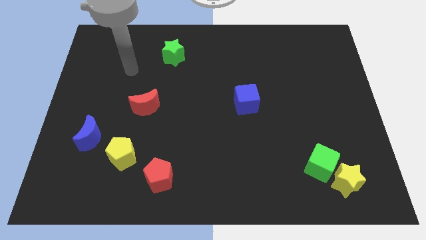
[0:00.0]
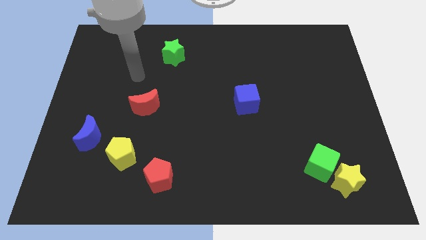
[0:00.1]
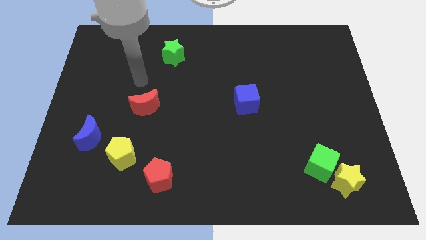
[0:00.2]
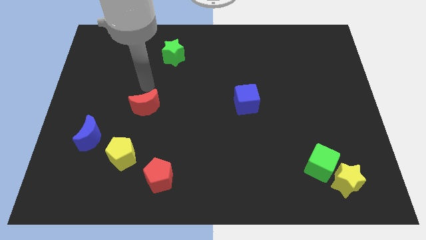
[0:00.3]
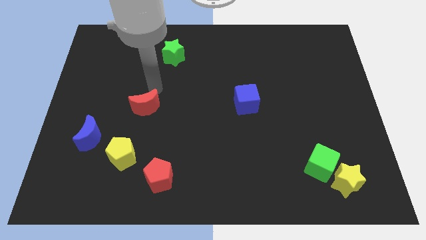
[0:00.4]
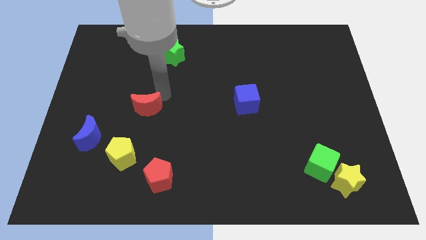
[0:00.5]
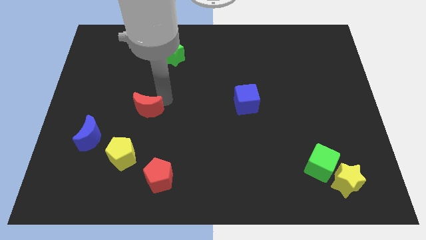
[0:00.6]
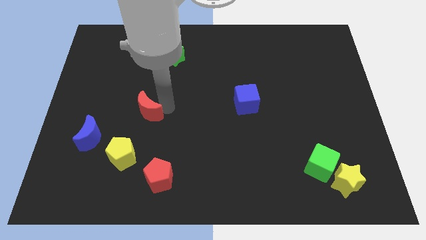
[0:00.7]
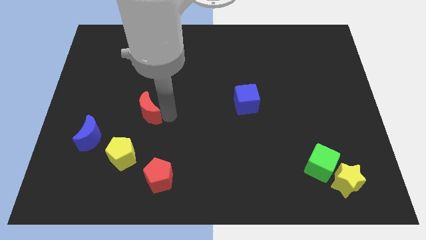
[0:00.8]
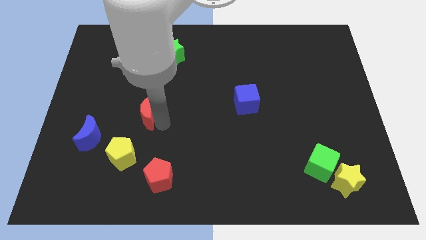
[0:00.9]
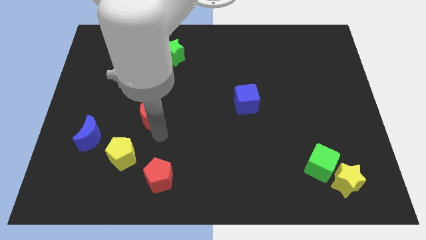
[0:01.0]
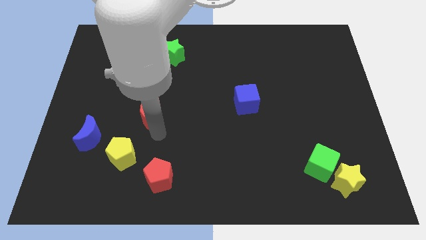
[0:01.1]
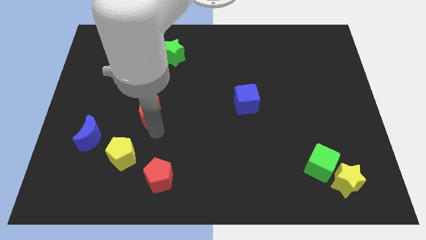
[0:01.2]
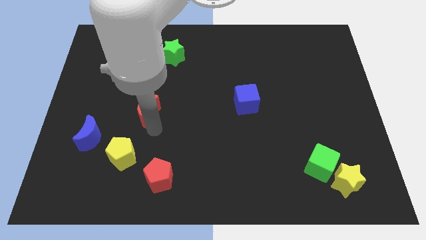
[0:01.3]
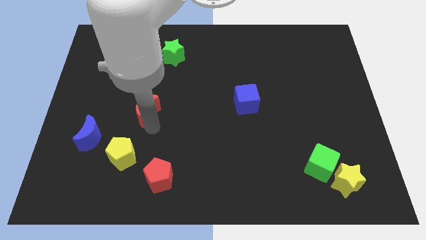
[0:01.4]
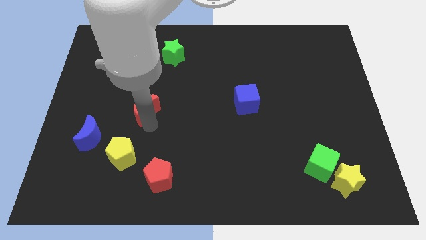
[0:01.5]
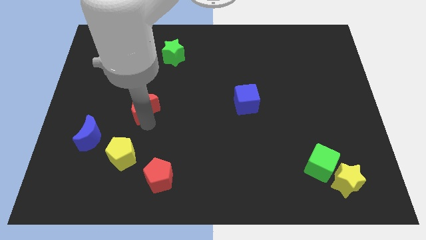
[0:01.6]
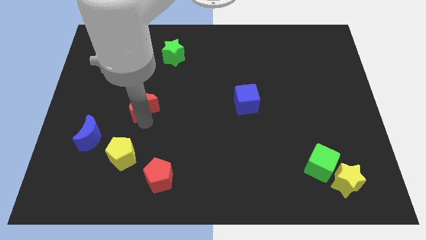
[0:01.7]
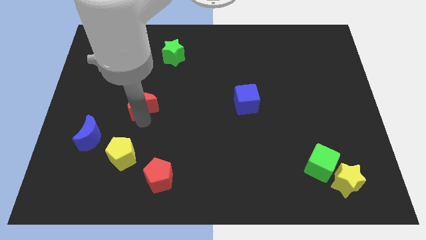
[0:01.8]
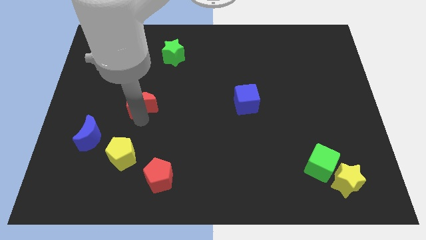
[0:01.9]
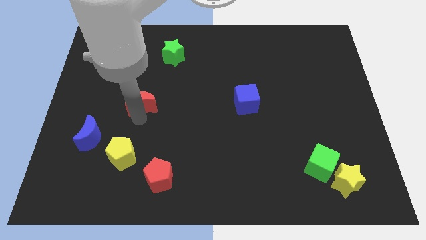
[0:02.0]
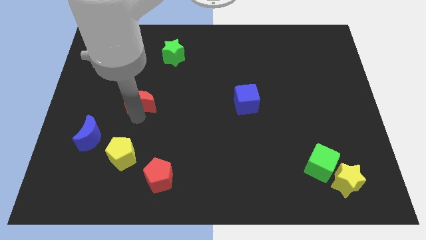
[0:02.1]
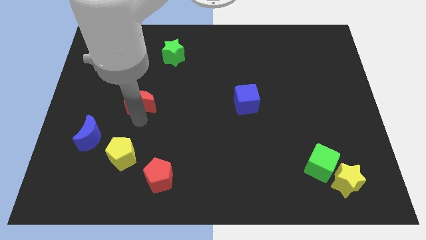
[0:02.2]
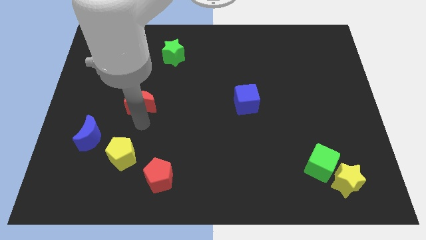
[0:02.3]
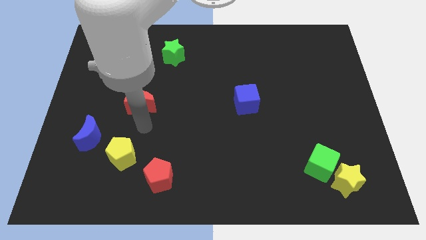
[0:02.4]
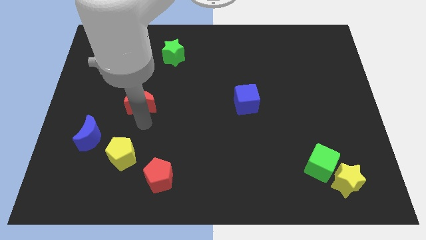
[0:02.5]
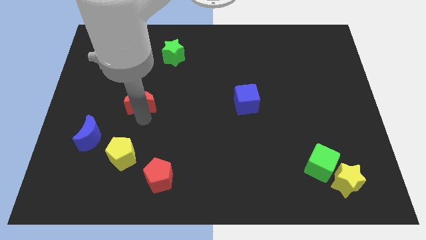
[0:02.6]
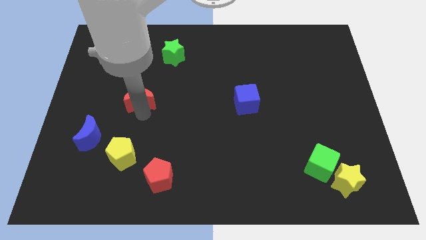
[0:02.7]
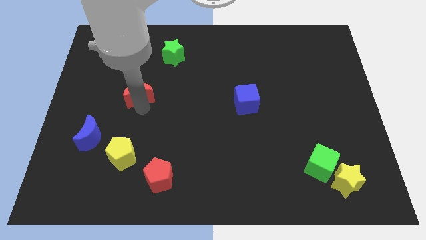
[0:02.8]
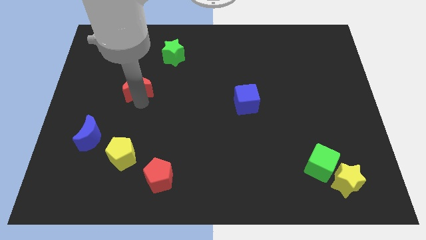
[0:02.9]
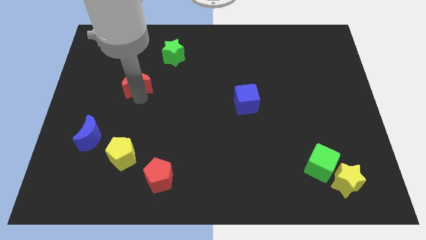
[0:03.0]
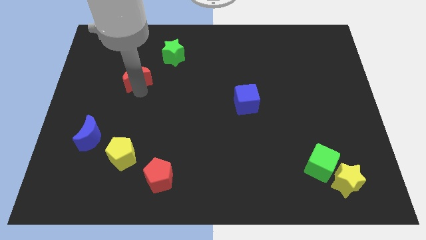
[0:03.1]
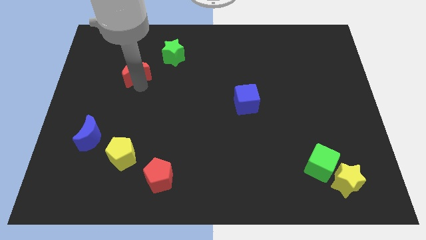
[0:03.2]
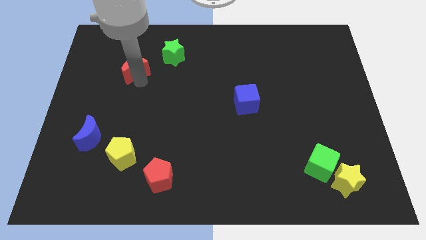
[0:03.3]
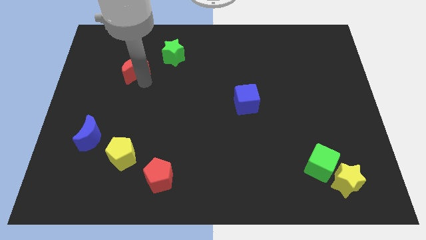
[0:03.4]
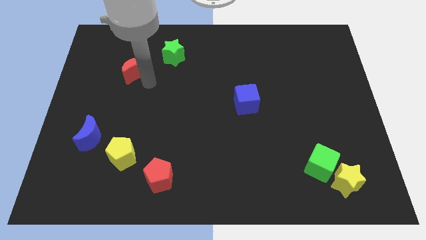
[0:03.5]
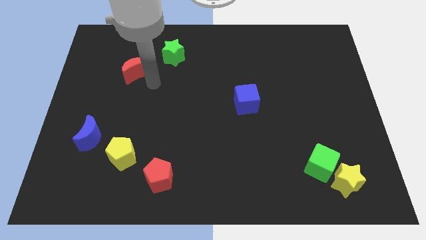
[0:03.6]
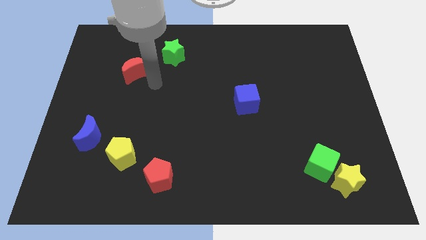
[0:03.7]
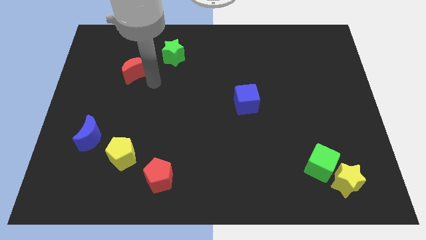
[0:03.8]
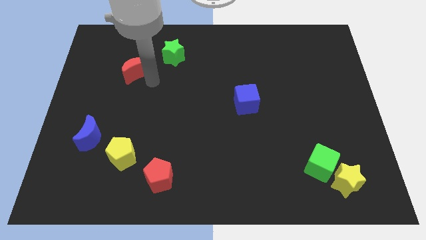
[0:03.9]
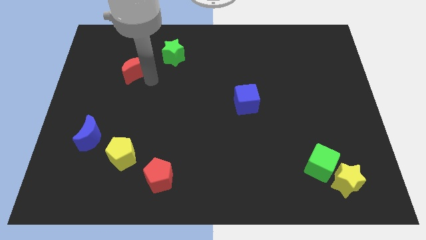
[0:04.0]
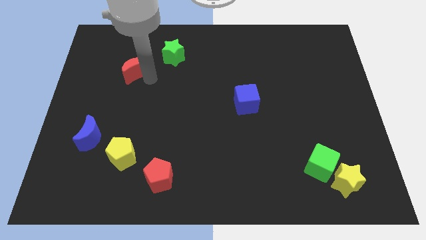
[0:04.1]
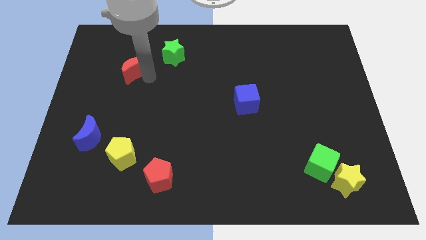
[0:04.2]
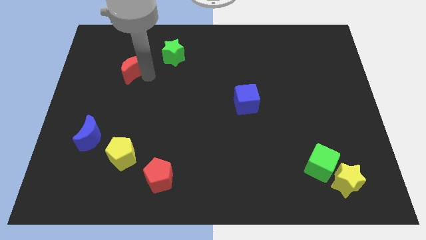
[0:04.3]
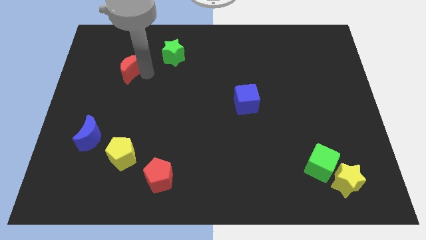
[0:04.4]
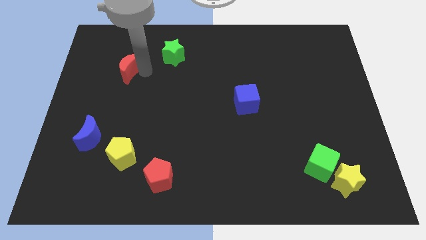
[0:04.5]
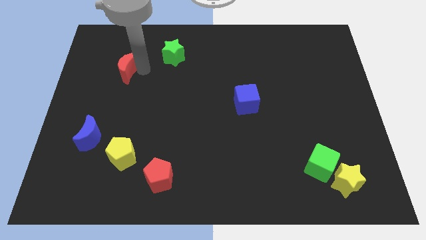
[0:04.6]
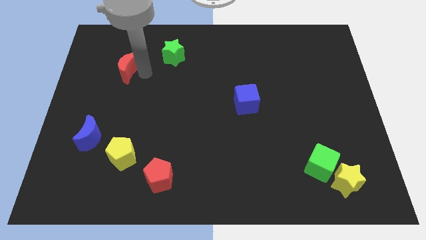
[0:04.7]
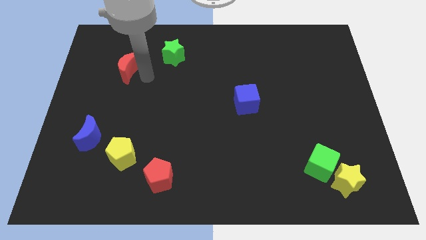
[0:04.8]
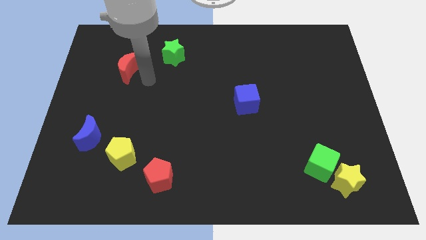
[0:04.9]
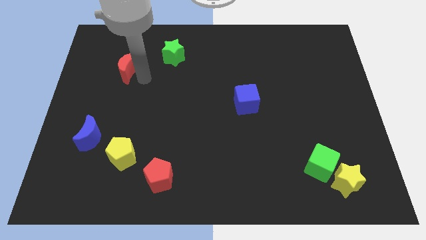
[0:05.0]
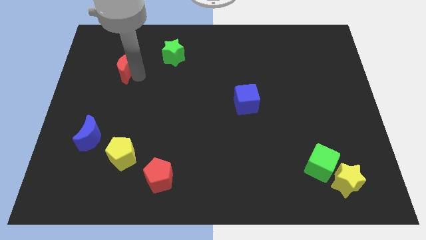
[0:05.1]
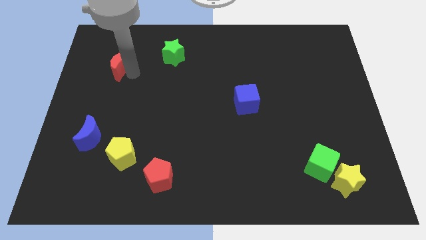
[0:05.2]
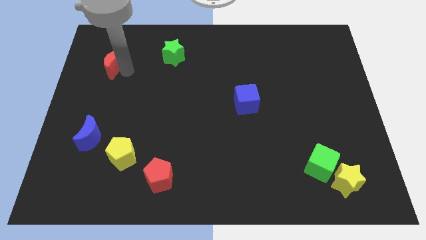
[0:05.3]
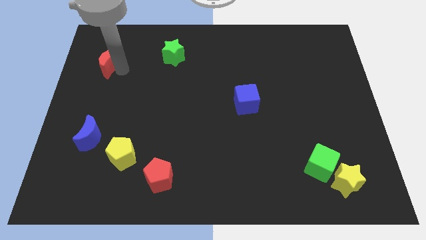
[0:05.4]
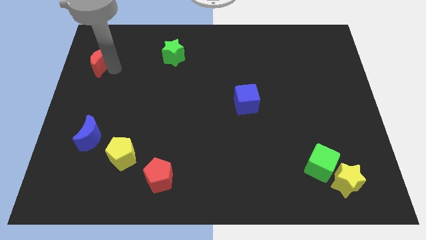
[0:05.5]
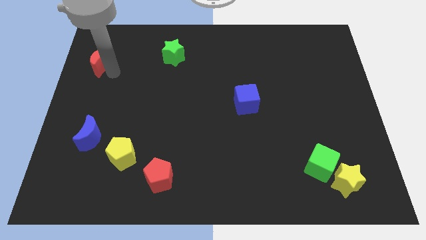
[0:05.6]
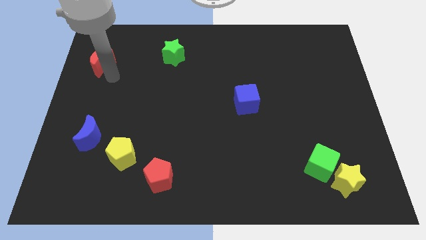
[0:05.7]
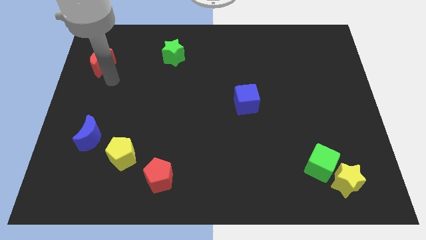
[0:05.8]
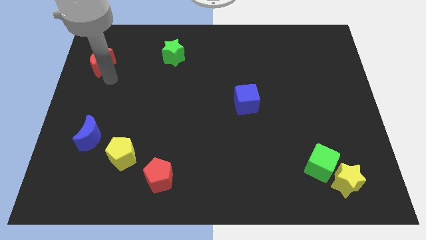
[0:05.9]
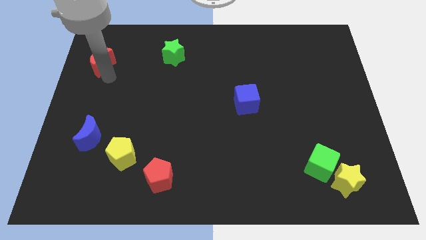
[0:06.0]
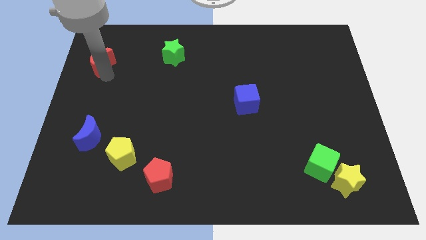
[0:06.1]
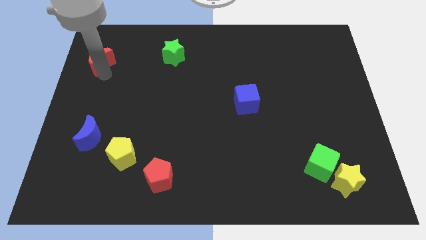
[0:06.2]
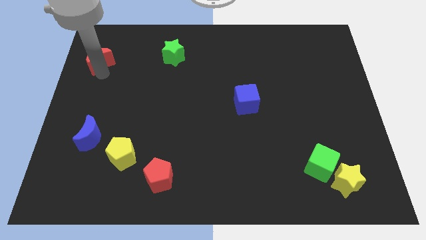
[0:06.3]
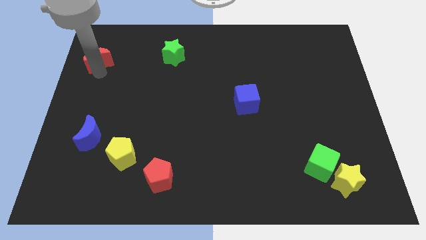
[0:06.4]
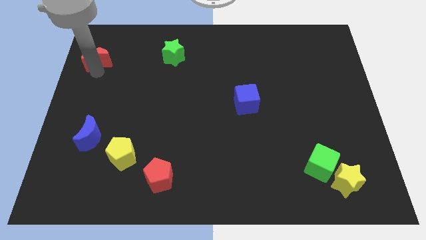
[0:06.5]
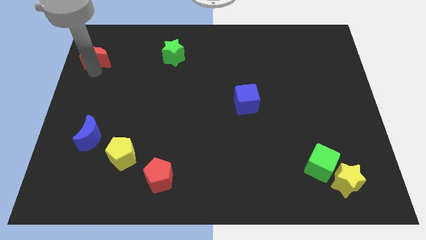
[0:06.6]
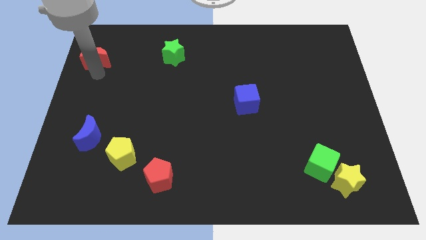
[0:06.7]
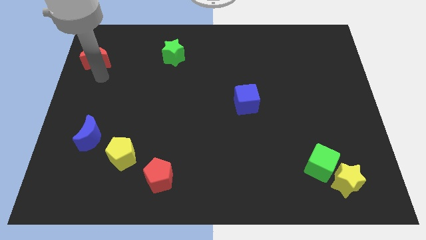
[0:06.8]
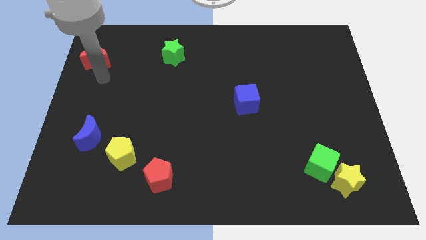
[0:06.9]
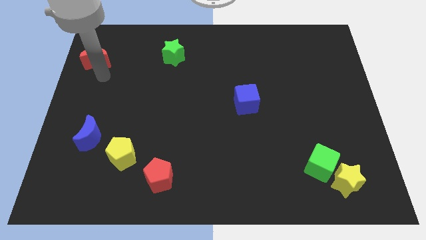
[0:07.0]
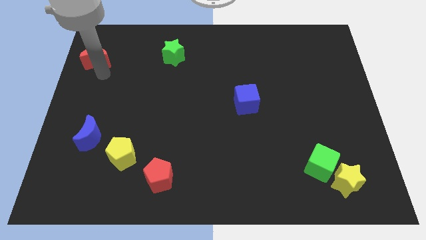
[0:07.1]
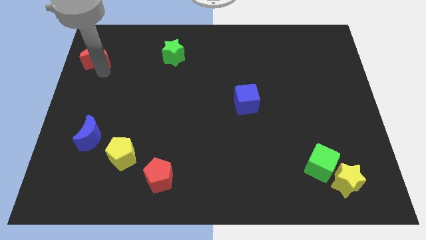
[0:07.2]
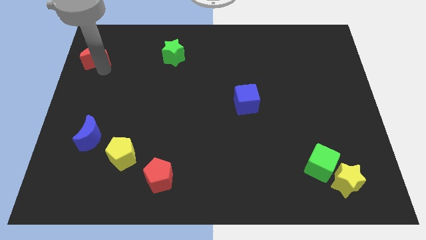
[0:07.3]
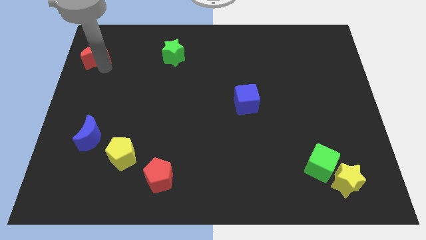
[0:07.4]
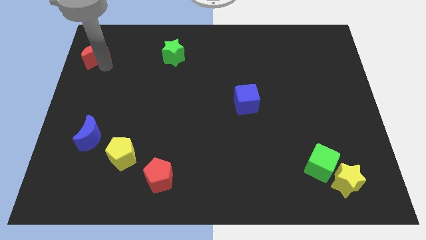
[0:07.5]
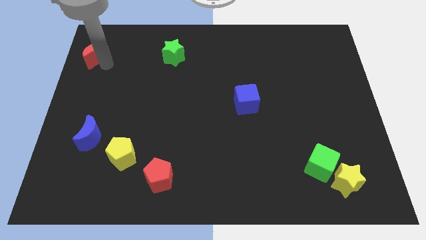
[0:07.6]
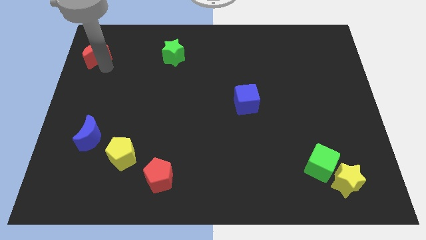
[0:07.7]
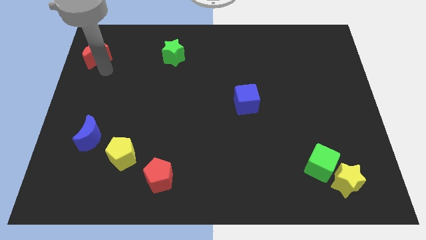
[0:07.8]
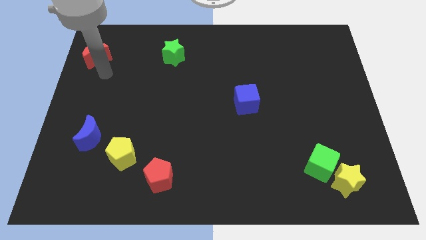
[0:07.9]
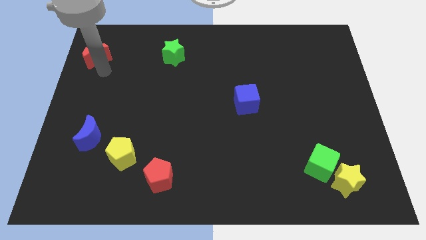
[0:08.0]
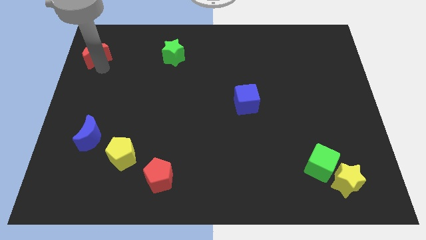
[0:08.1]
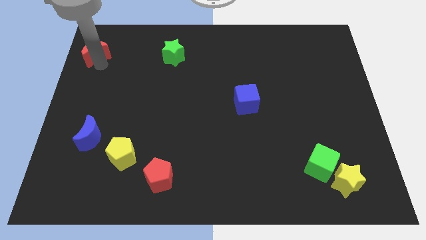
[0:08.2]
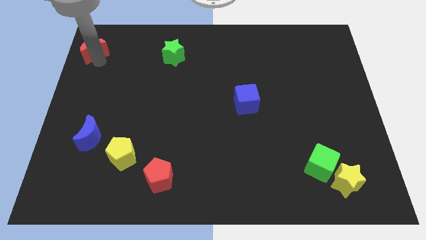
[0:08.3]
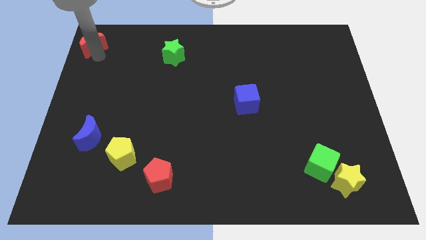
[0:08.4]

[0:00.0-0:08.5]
move the red moon to the top left
